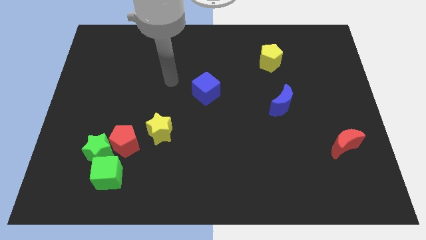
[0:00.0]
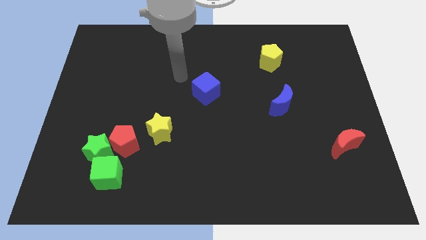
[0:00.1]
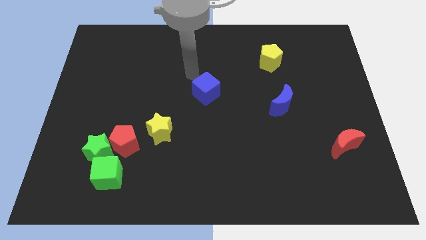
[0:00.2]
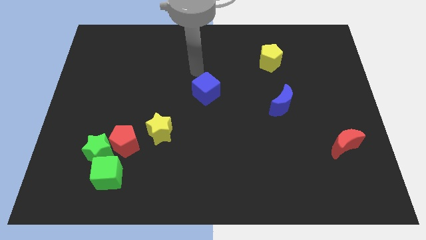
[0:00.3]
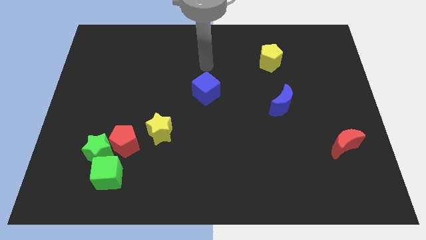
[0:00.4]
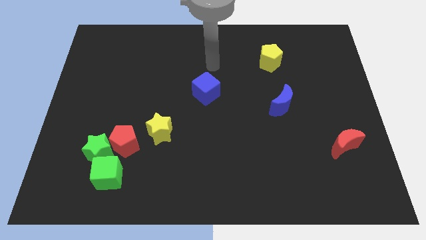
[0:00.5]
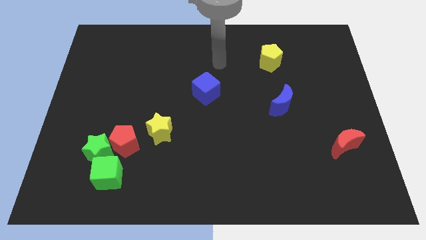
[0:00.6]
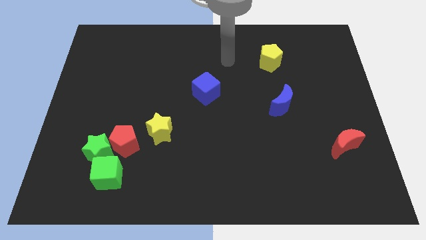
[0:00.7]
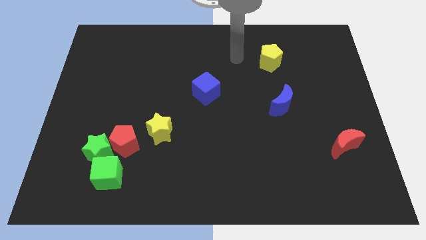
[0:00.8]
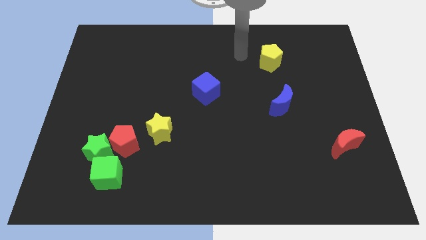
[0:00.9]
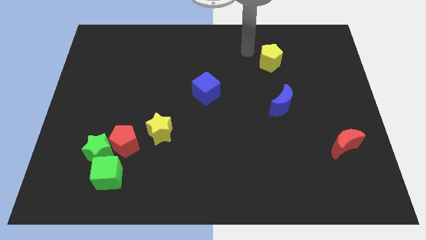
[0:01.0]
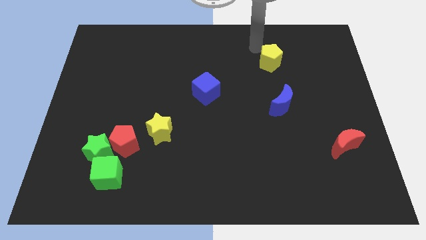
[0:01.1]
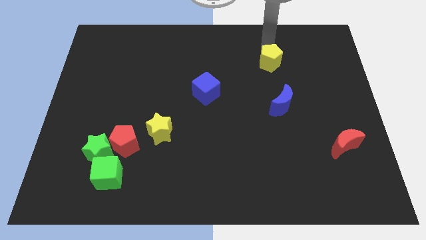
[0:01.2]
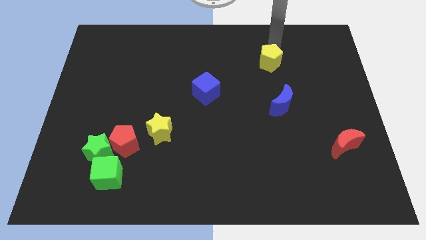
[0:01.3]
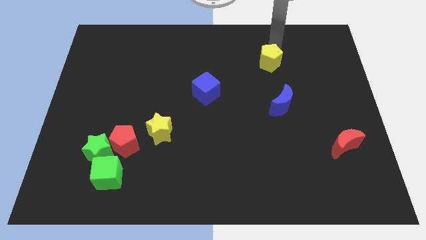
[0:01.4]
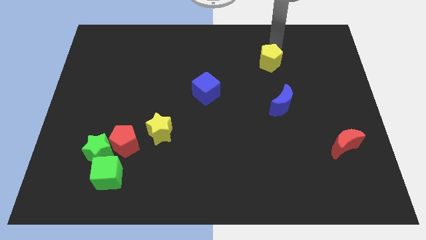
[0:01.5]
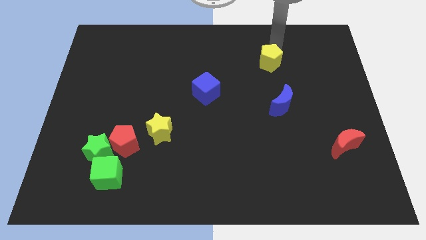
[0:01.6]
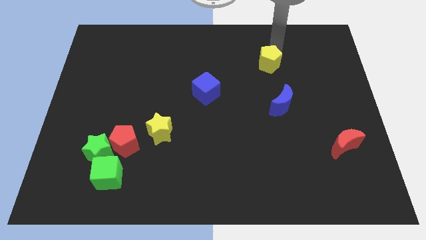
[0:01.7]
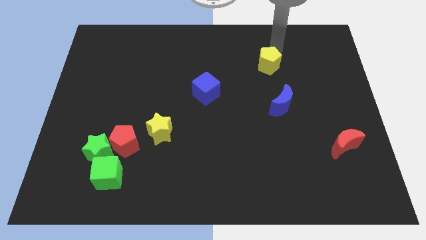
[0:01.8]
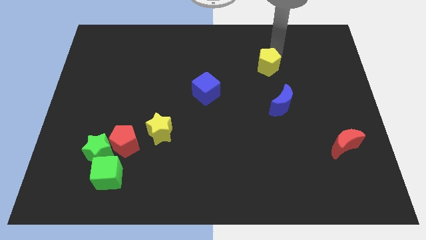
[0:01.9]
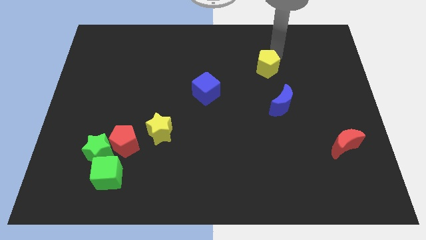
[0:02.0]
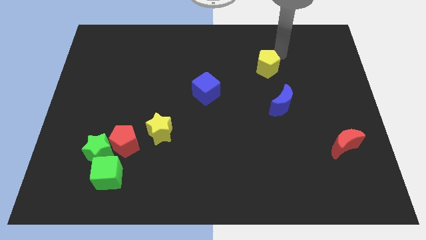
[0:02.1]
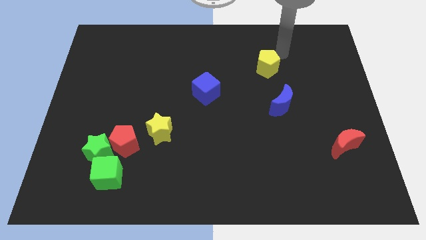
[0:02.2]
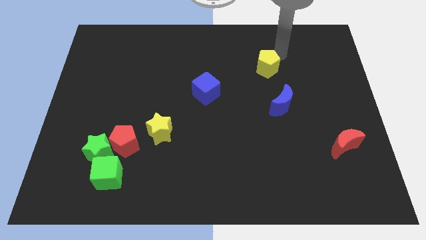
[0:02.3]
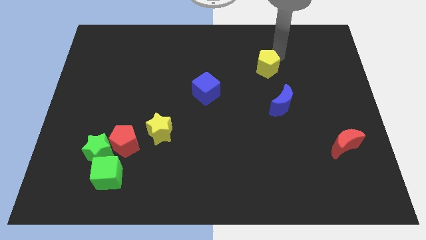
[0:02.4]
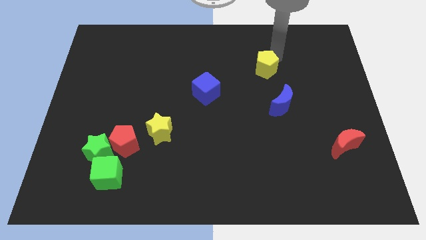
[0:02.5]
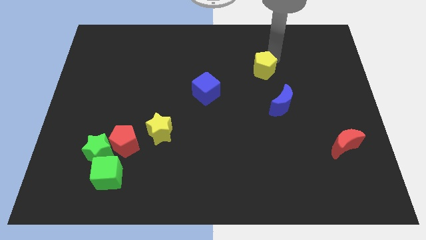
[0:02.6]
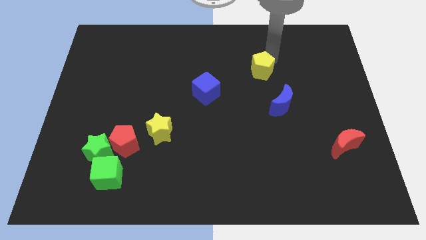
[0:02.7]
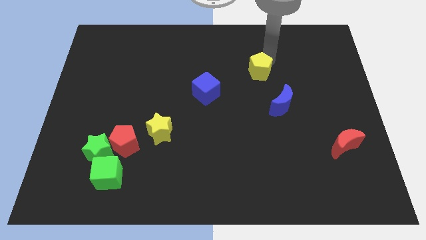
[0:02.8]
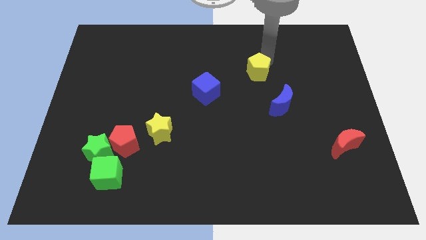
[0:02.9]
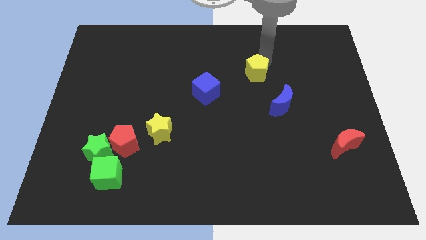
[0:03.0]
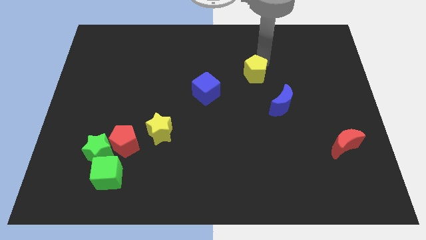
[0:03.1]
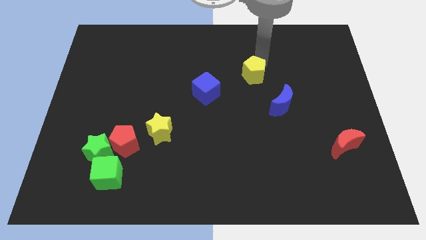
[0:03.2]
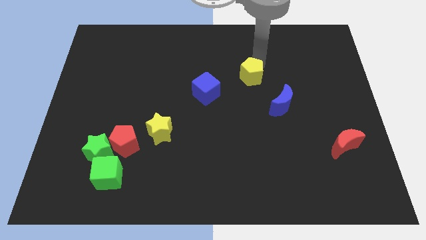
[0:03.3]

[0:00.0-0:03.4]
slide the yellow pentagon downwards and left a little

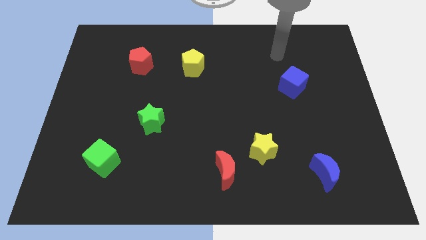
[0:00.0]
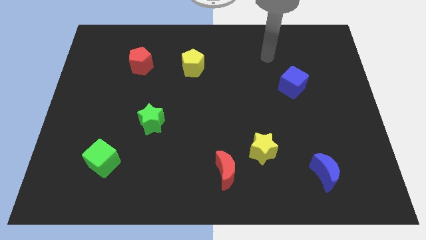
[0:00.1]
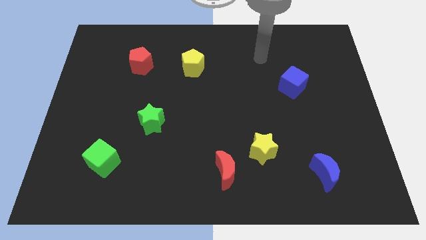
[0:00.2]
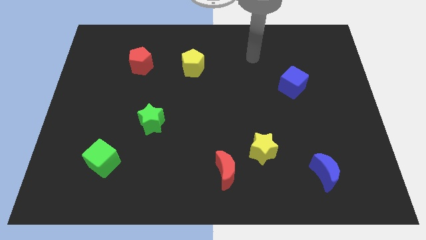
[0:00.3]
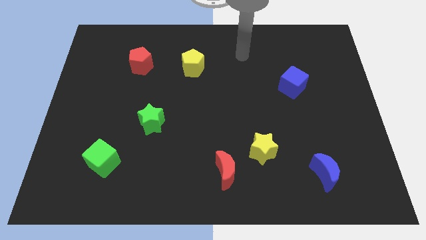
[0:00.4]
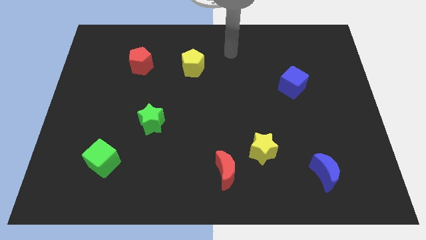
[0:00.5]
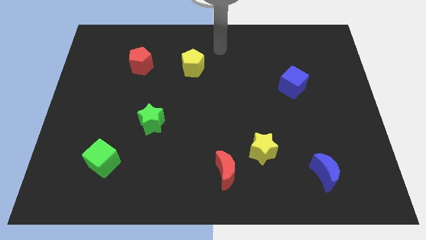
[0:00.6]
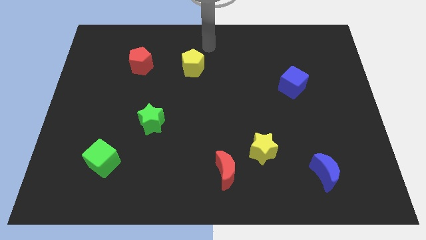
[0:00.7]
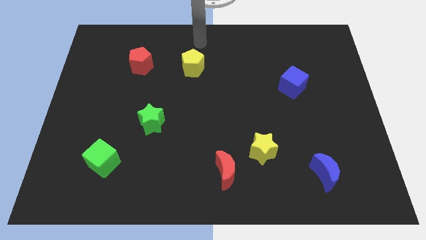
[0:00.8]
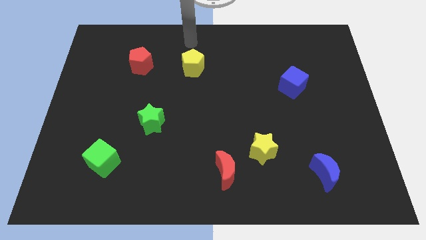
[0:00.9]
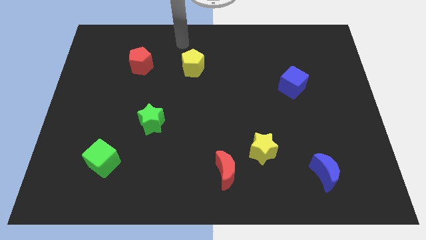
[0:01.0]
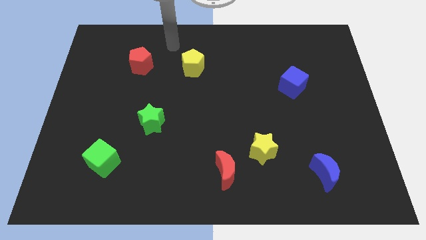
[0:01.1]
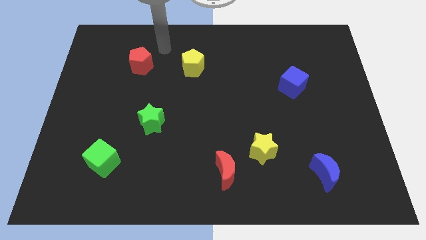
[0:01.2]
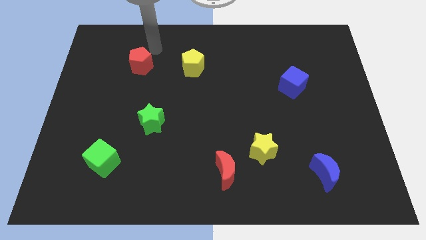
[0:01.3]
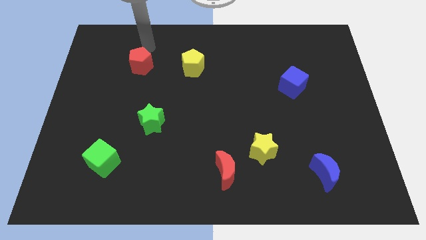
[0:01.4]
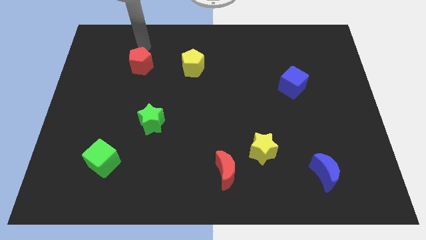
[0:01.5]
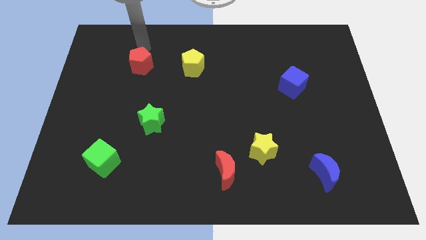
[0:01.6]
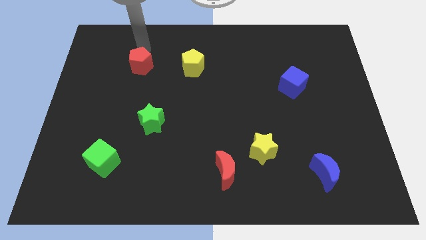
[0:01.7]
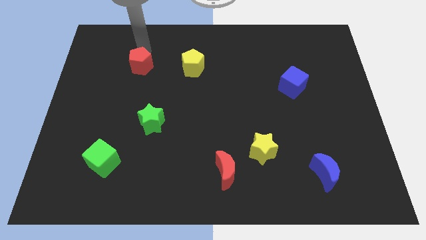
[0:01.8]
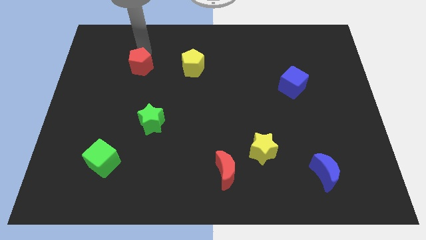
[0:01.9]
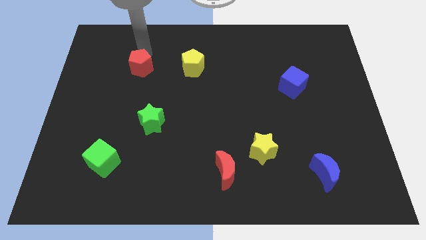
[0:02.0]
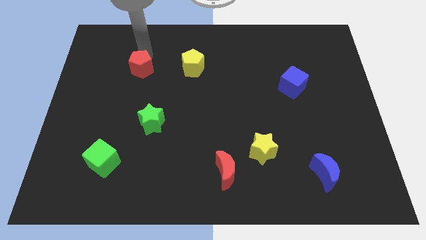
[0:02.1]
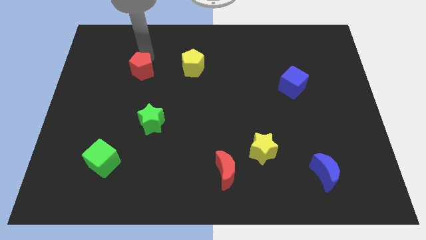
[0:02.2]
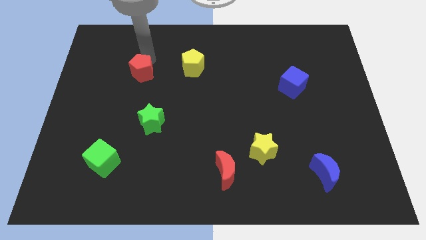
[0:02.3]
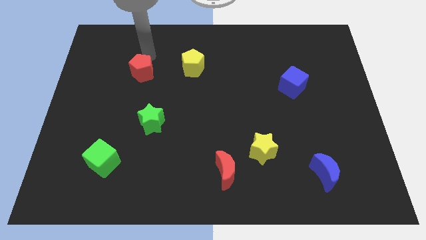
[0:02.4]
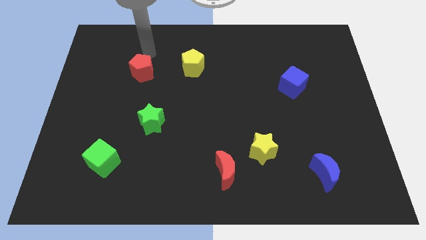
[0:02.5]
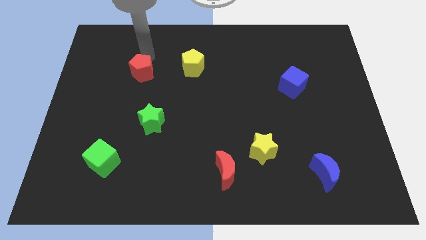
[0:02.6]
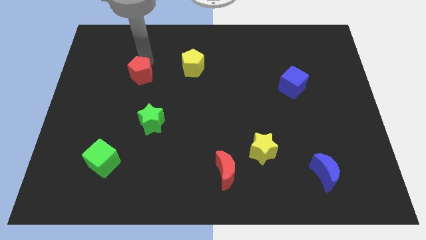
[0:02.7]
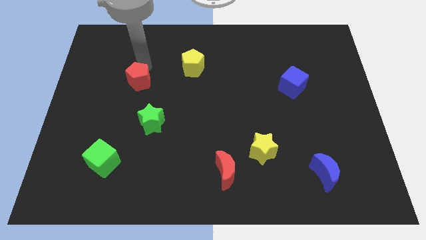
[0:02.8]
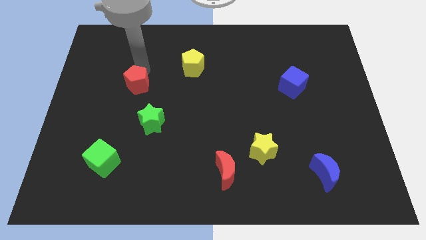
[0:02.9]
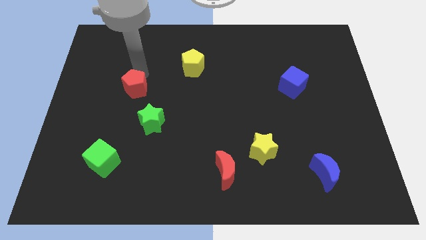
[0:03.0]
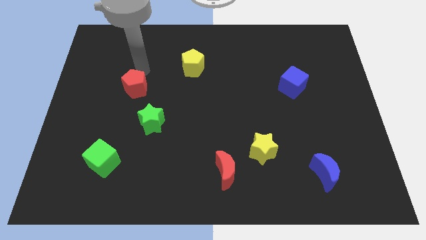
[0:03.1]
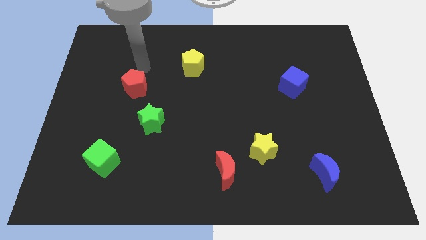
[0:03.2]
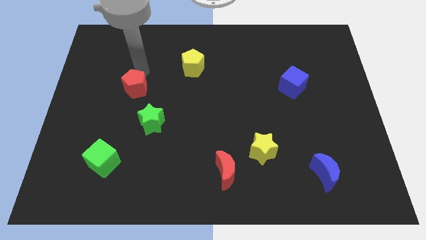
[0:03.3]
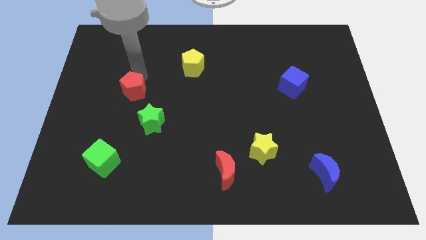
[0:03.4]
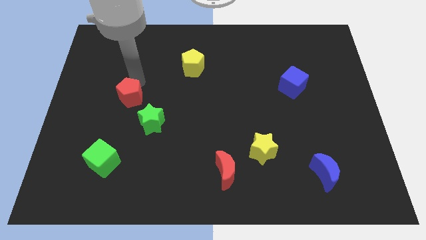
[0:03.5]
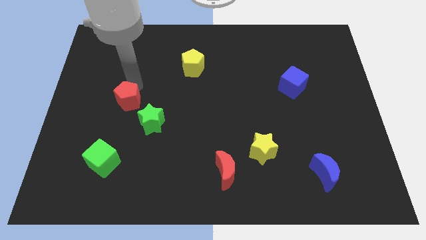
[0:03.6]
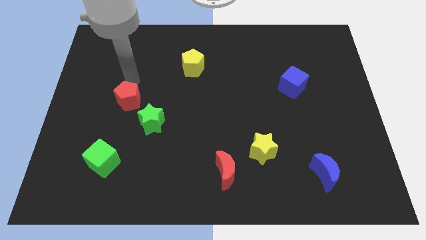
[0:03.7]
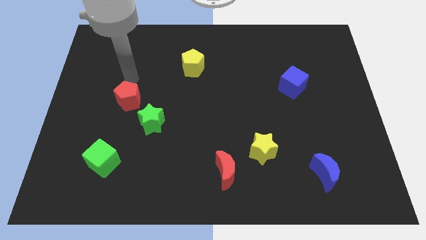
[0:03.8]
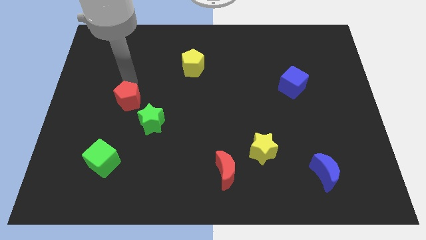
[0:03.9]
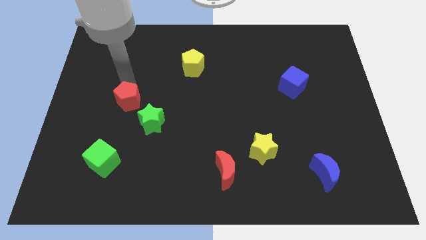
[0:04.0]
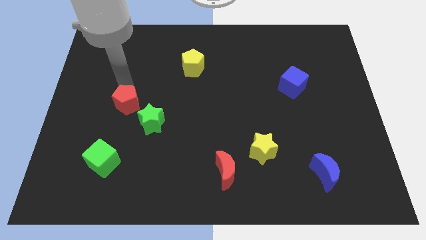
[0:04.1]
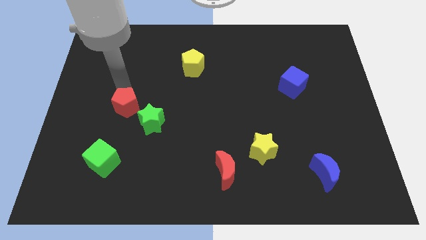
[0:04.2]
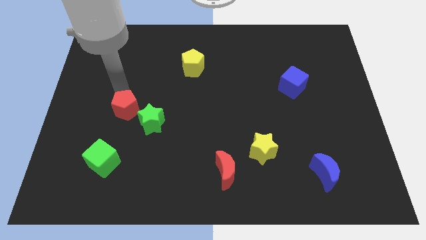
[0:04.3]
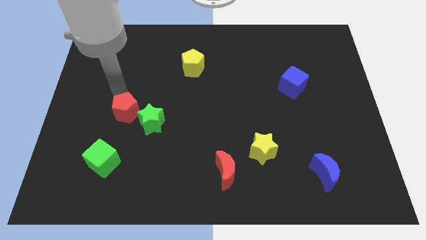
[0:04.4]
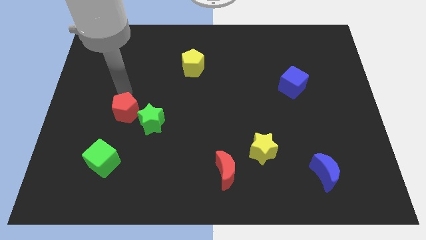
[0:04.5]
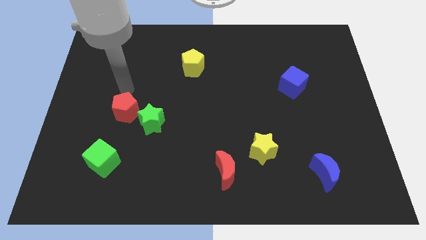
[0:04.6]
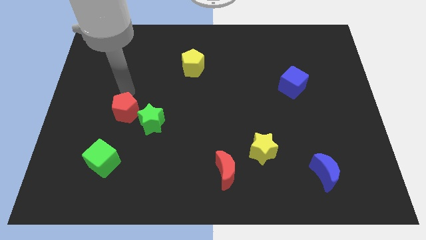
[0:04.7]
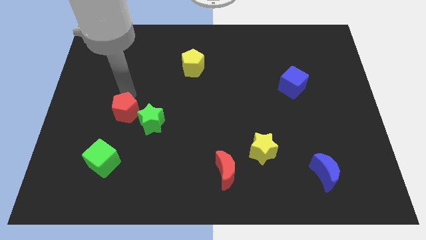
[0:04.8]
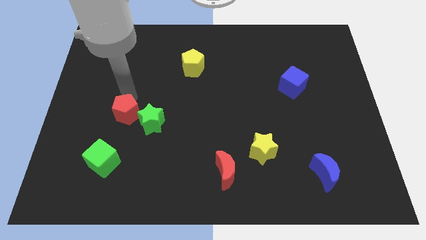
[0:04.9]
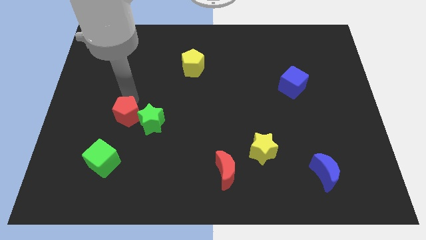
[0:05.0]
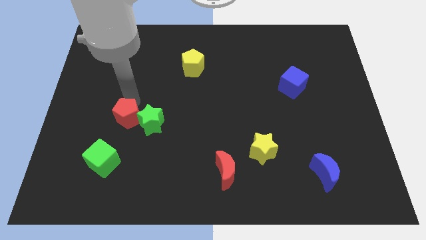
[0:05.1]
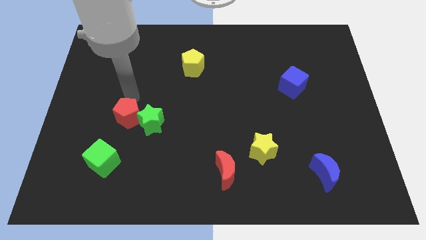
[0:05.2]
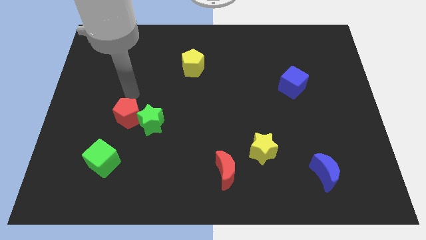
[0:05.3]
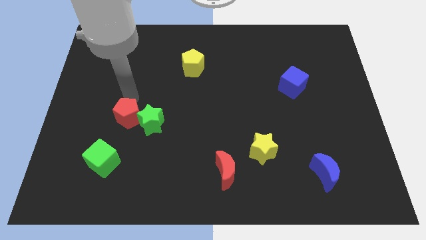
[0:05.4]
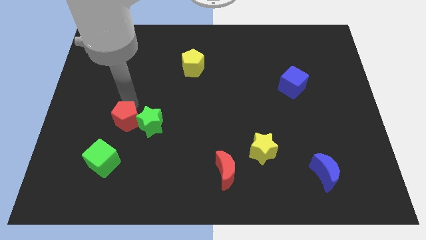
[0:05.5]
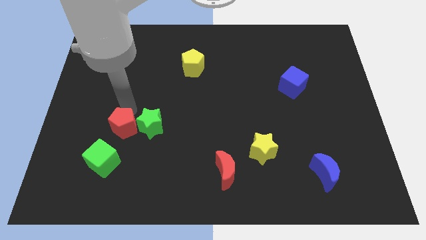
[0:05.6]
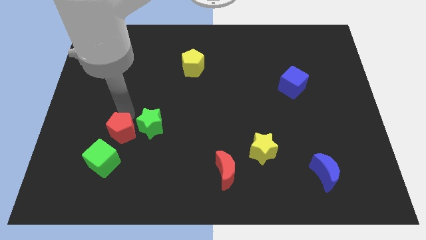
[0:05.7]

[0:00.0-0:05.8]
slide the red pentagon downwards
